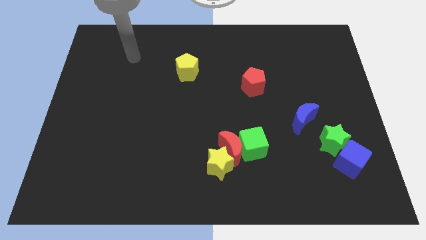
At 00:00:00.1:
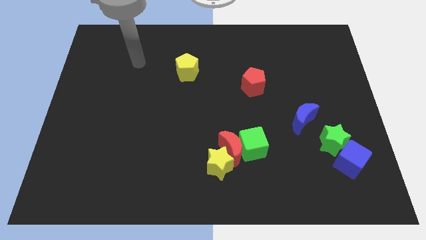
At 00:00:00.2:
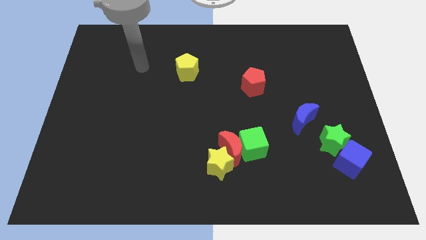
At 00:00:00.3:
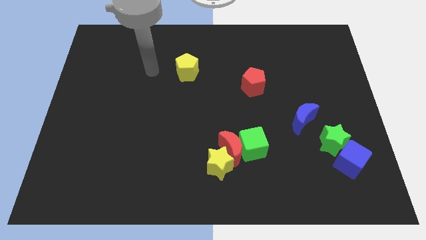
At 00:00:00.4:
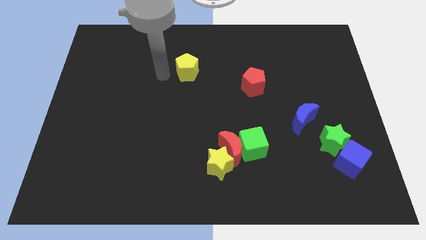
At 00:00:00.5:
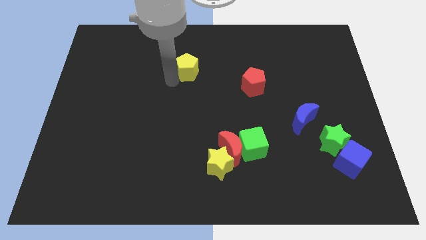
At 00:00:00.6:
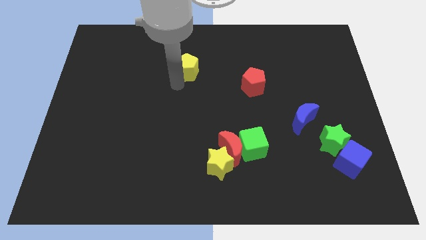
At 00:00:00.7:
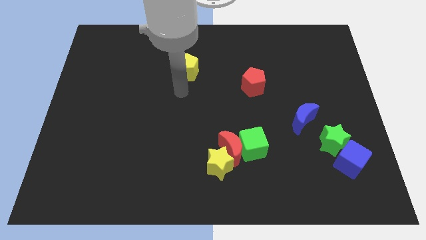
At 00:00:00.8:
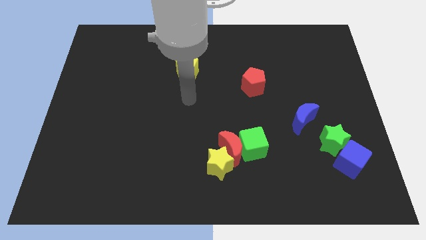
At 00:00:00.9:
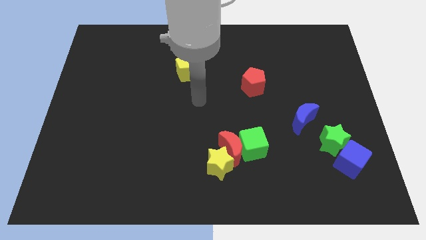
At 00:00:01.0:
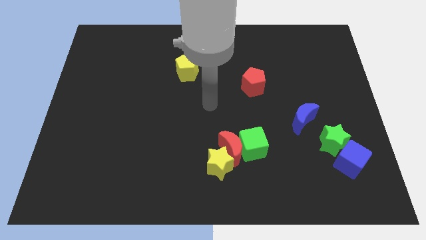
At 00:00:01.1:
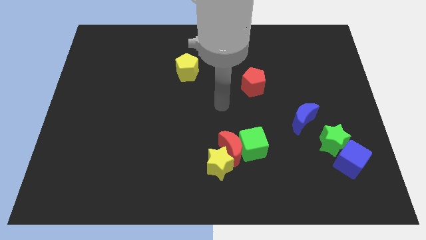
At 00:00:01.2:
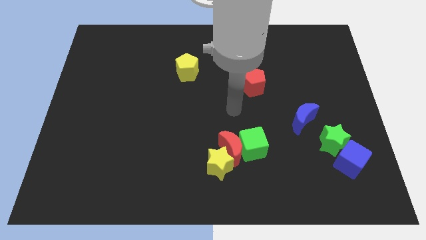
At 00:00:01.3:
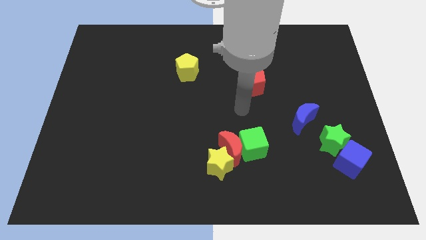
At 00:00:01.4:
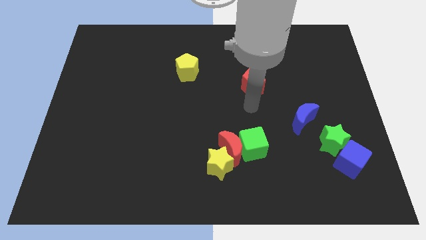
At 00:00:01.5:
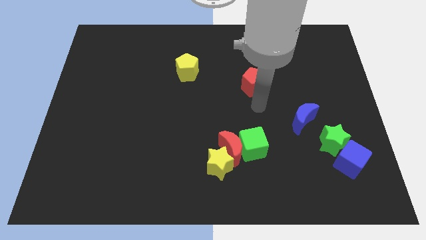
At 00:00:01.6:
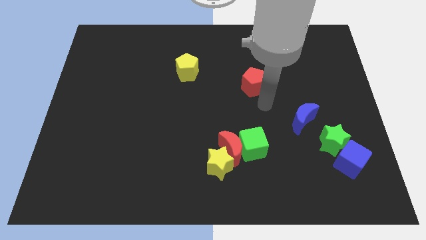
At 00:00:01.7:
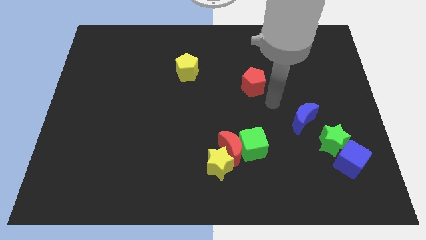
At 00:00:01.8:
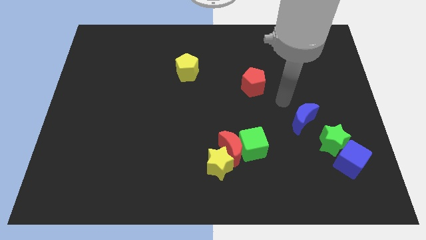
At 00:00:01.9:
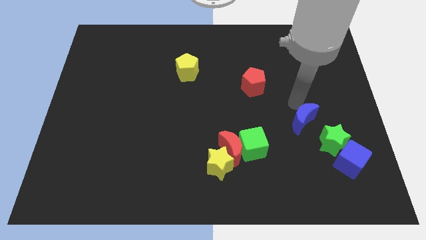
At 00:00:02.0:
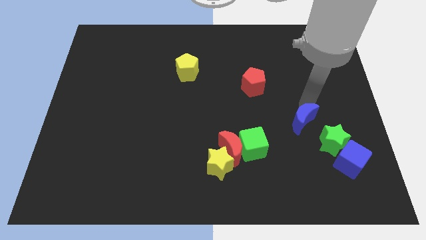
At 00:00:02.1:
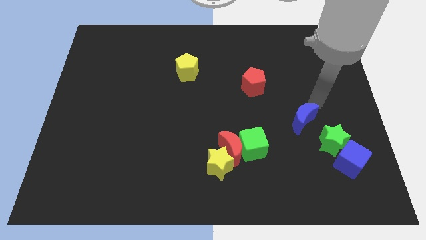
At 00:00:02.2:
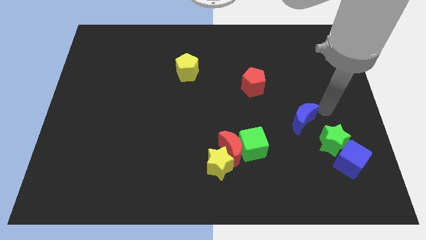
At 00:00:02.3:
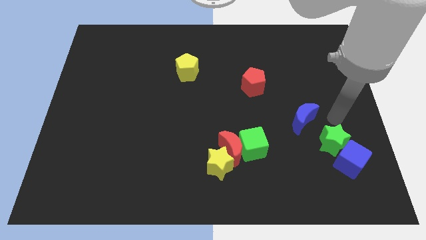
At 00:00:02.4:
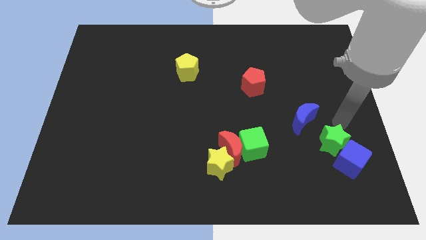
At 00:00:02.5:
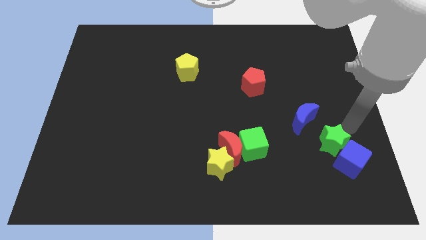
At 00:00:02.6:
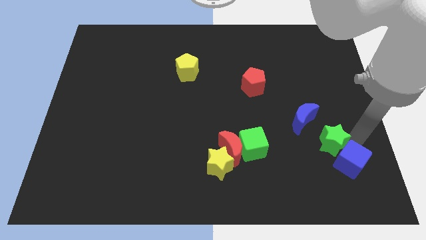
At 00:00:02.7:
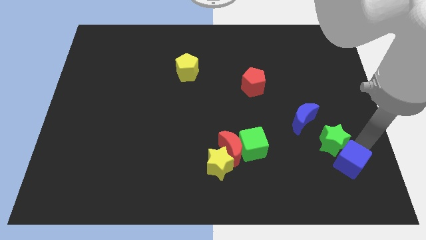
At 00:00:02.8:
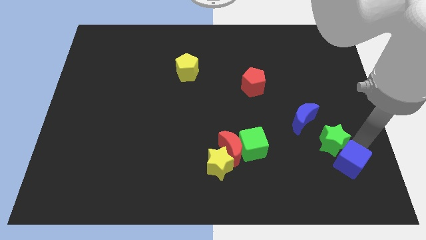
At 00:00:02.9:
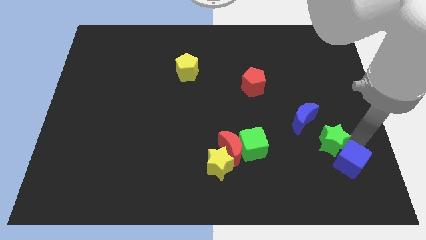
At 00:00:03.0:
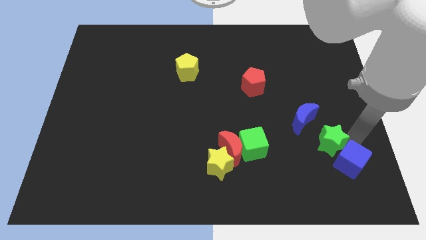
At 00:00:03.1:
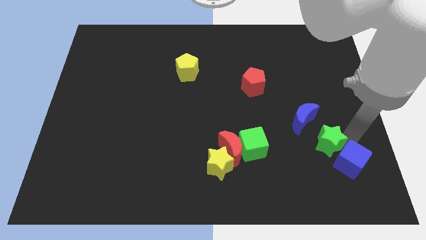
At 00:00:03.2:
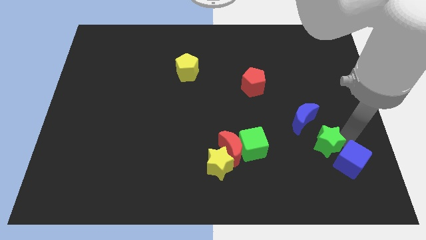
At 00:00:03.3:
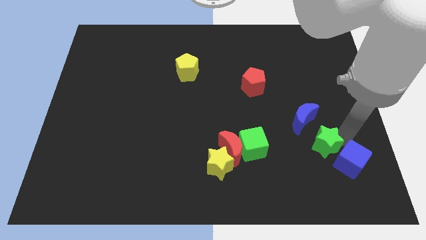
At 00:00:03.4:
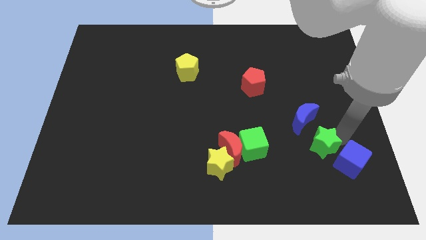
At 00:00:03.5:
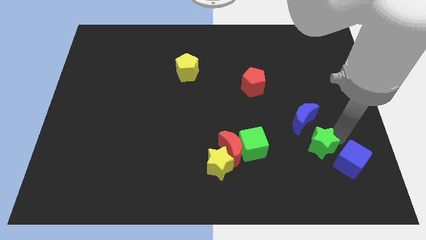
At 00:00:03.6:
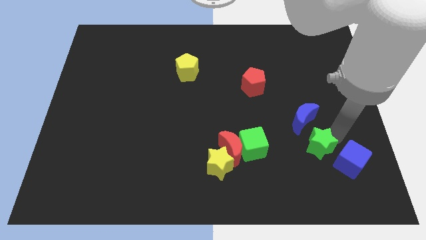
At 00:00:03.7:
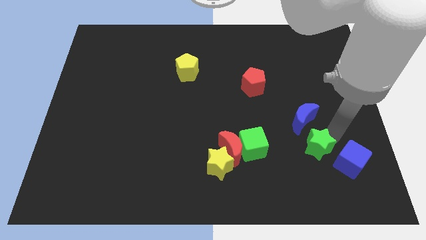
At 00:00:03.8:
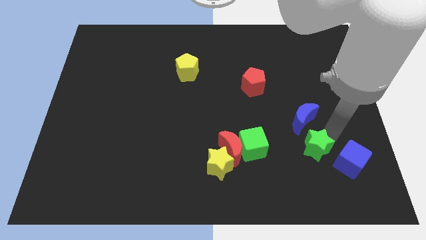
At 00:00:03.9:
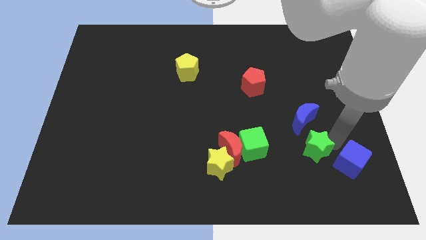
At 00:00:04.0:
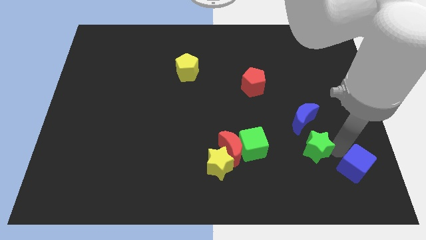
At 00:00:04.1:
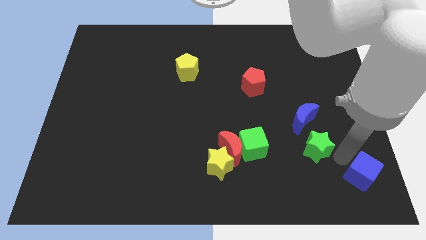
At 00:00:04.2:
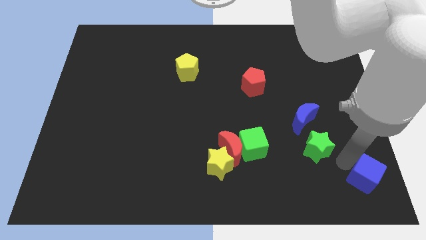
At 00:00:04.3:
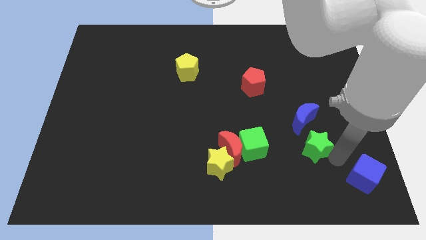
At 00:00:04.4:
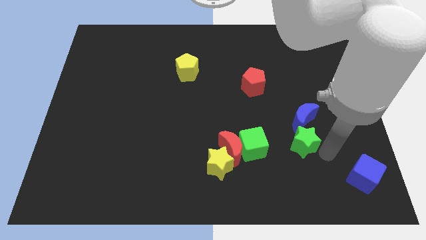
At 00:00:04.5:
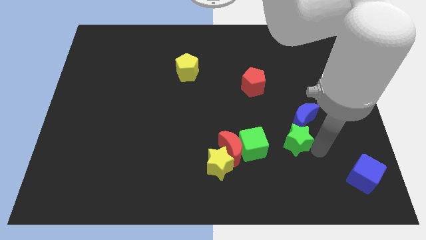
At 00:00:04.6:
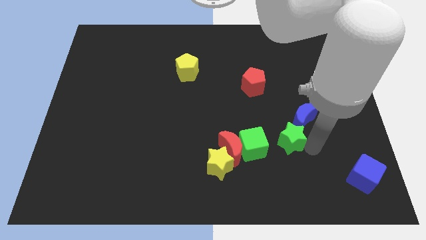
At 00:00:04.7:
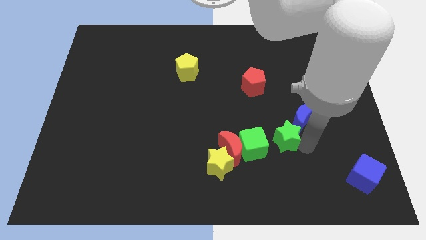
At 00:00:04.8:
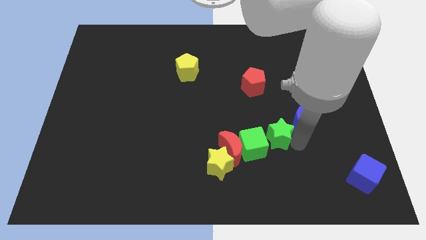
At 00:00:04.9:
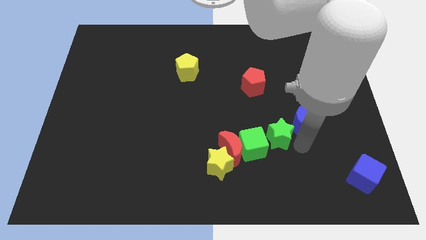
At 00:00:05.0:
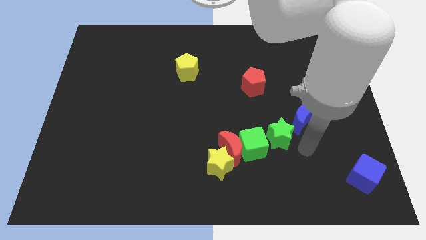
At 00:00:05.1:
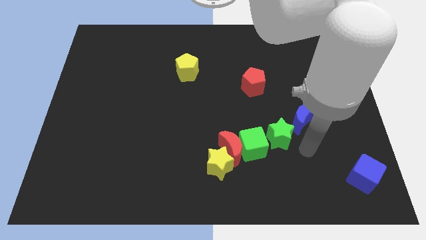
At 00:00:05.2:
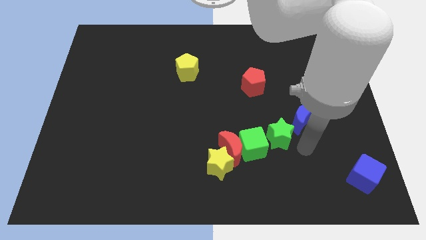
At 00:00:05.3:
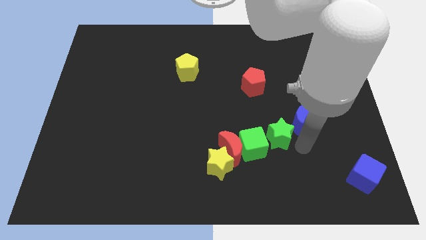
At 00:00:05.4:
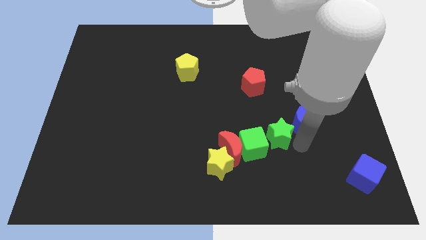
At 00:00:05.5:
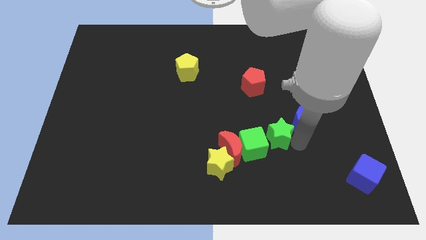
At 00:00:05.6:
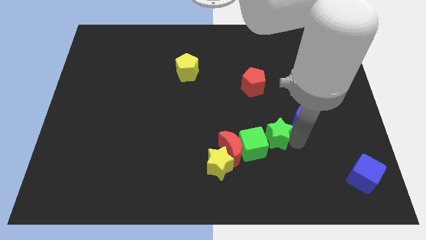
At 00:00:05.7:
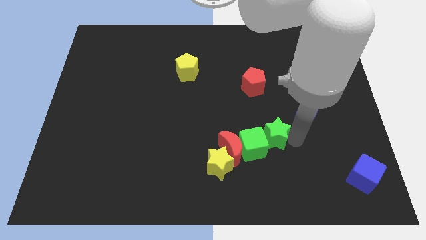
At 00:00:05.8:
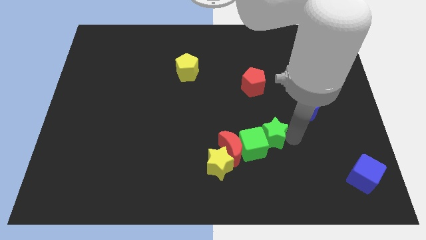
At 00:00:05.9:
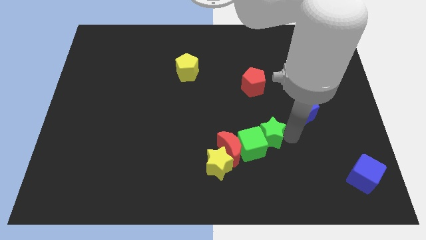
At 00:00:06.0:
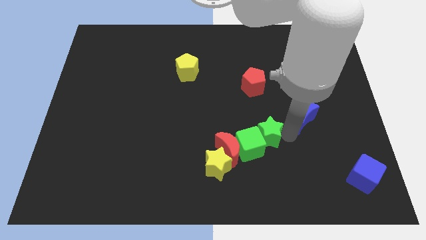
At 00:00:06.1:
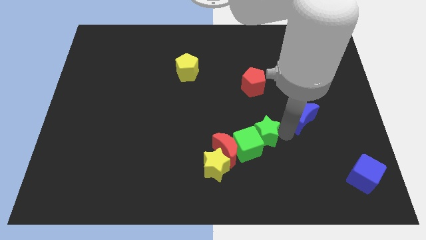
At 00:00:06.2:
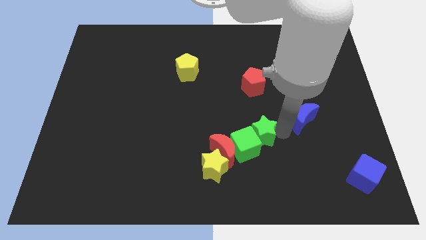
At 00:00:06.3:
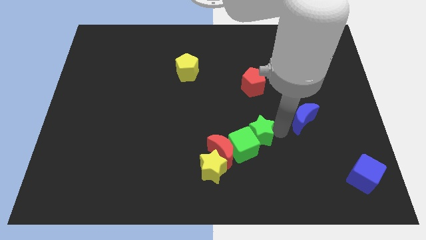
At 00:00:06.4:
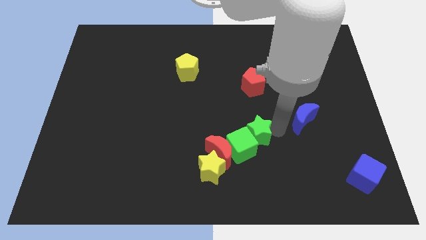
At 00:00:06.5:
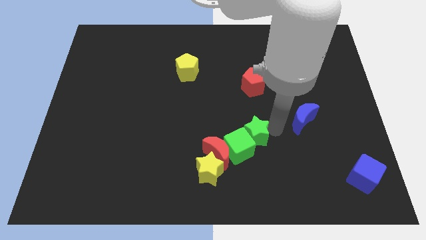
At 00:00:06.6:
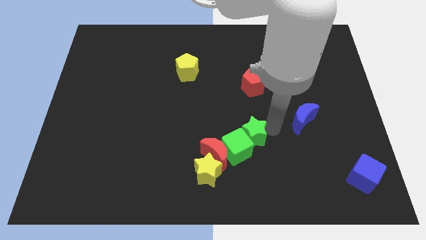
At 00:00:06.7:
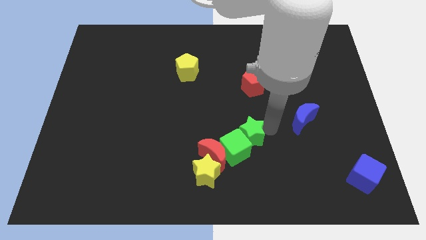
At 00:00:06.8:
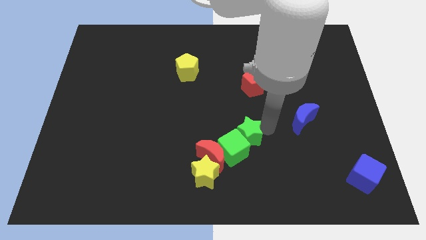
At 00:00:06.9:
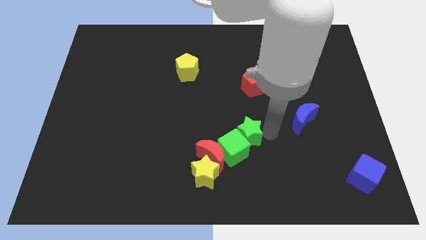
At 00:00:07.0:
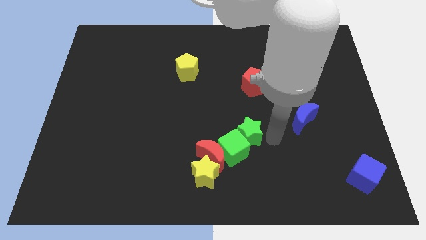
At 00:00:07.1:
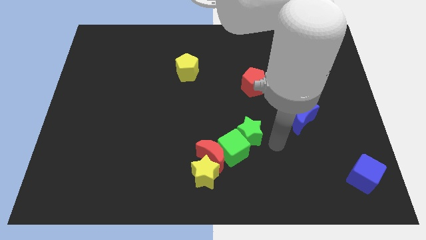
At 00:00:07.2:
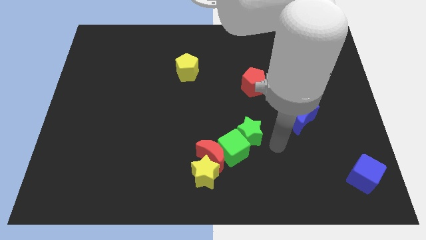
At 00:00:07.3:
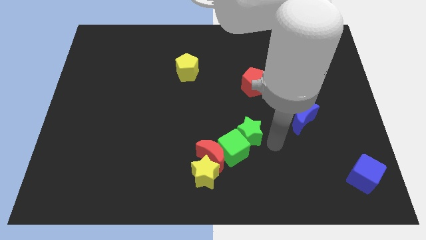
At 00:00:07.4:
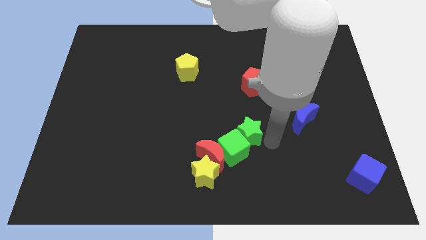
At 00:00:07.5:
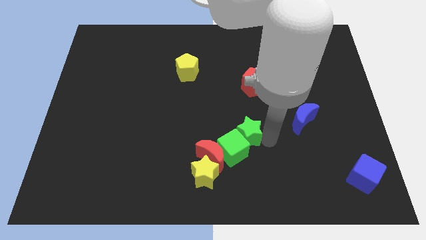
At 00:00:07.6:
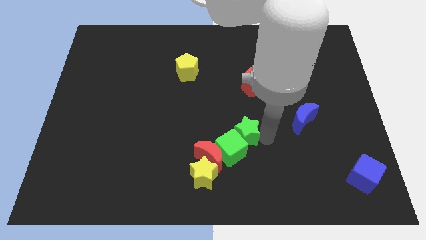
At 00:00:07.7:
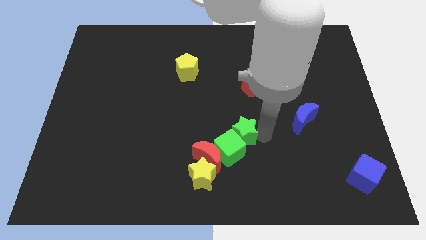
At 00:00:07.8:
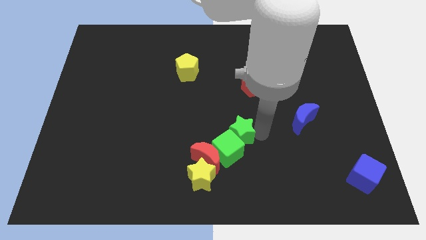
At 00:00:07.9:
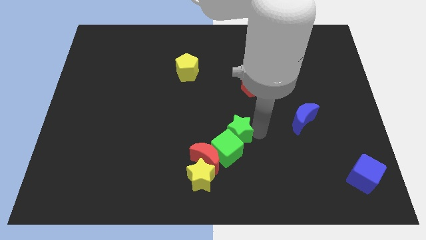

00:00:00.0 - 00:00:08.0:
push the green star left

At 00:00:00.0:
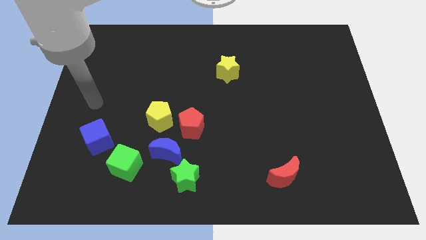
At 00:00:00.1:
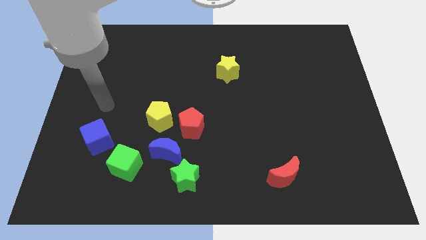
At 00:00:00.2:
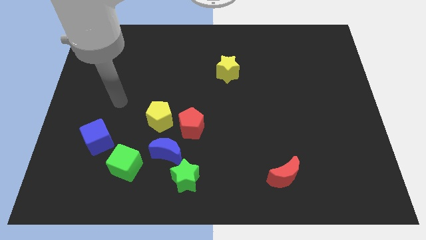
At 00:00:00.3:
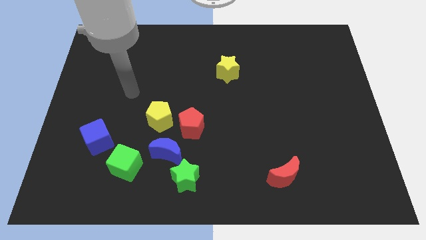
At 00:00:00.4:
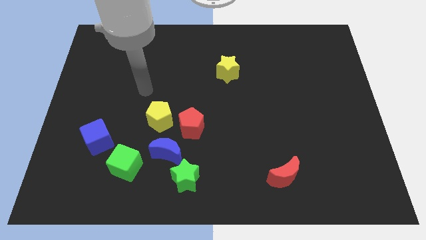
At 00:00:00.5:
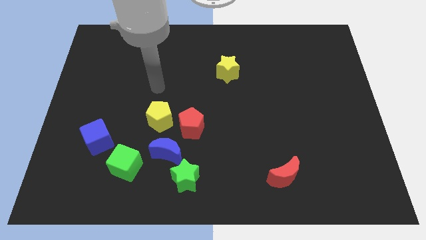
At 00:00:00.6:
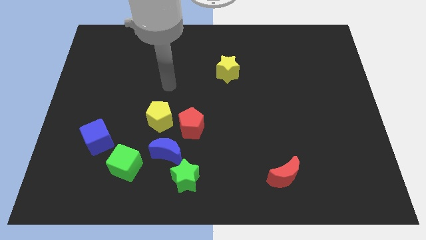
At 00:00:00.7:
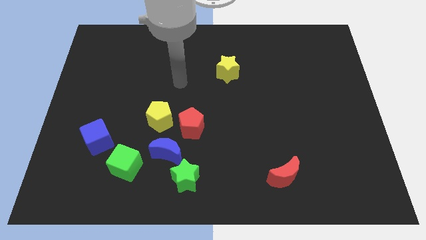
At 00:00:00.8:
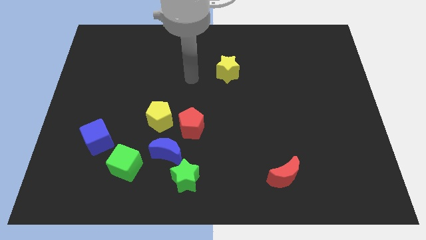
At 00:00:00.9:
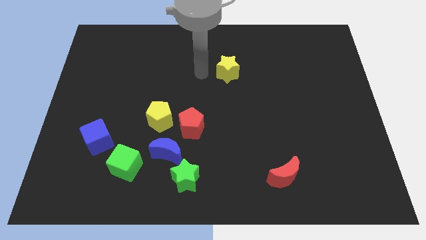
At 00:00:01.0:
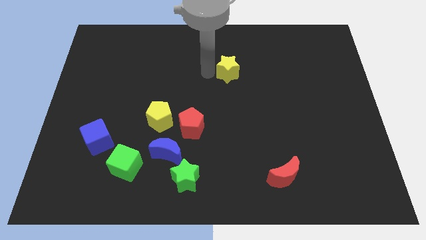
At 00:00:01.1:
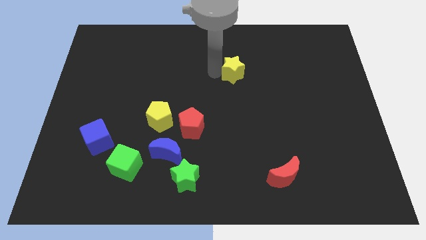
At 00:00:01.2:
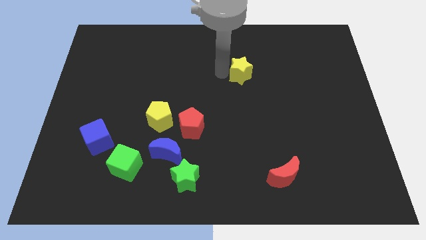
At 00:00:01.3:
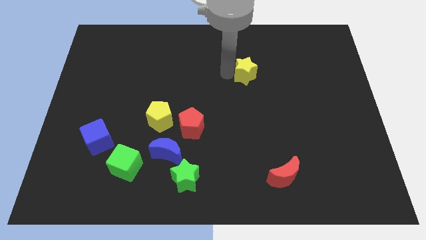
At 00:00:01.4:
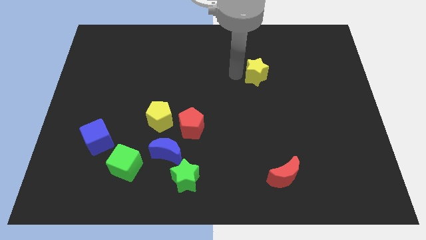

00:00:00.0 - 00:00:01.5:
push the yellow star slightly right
